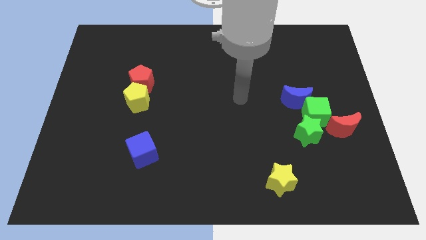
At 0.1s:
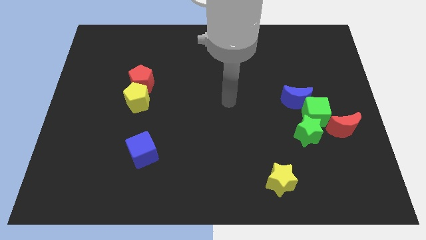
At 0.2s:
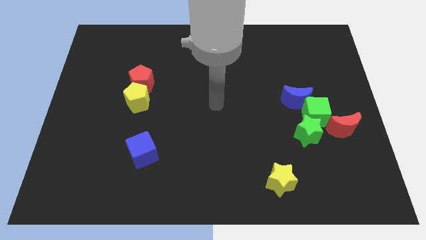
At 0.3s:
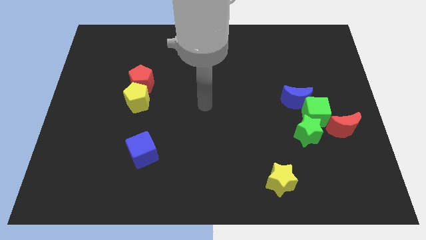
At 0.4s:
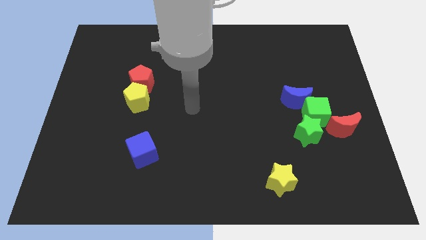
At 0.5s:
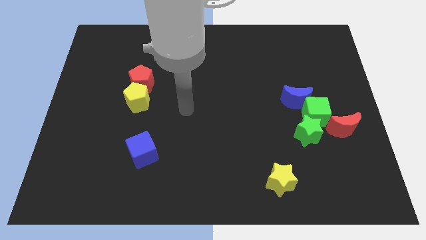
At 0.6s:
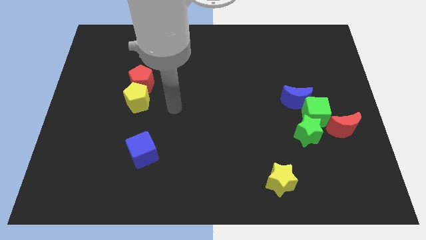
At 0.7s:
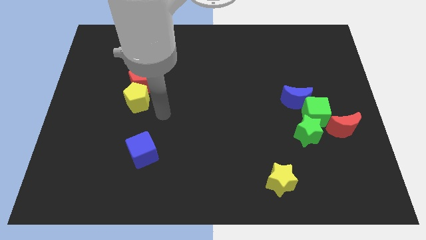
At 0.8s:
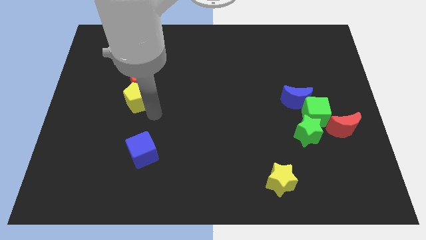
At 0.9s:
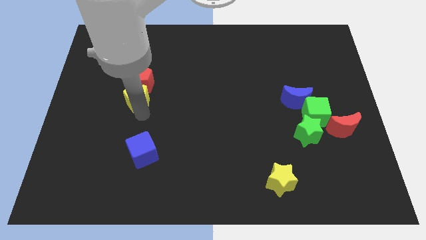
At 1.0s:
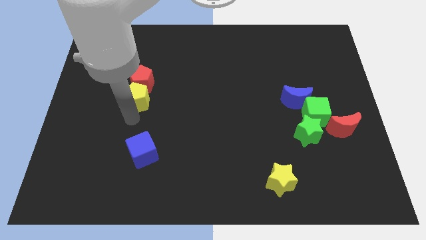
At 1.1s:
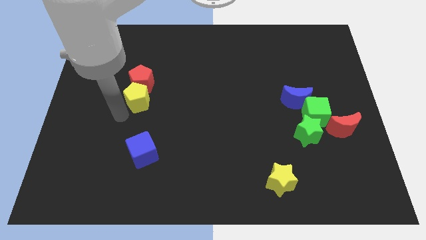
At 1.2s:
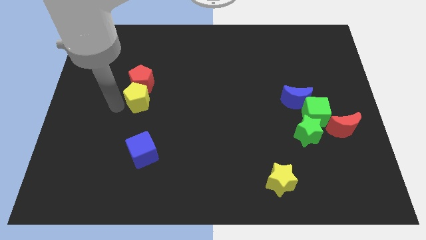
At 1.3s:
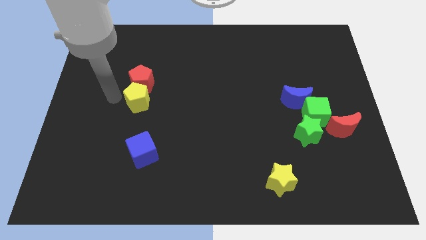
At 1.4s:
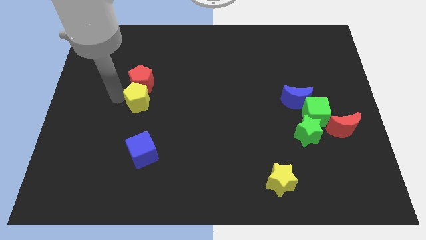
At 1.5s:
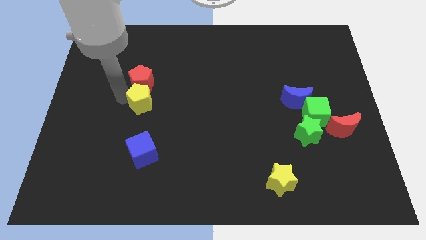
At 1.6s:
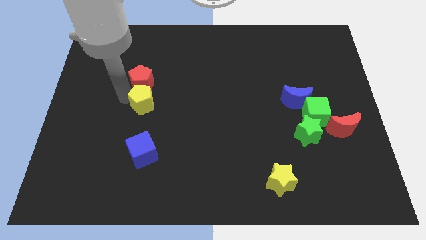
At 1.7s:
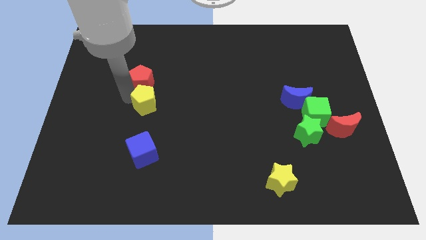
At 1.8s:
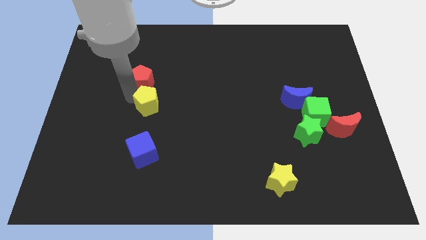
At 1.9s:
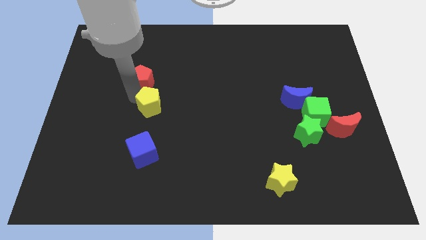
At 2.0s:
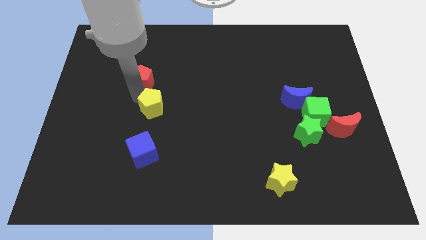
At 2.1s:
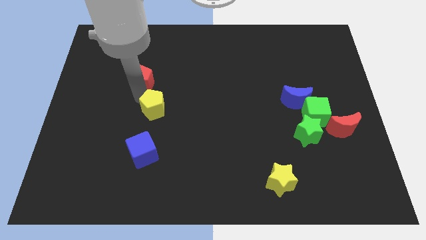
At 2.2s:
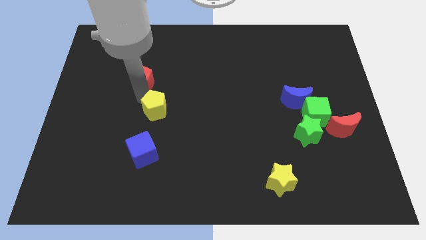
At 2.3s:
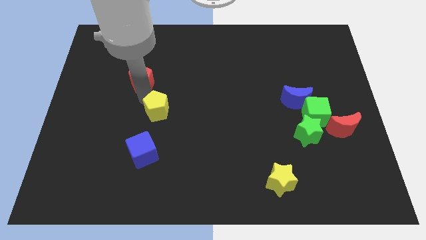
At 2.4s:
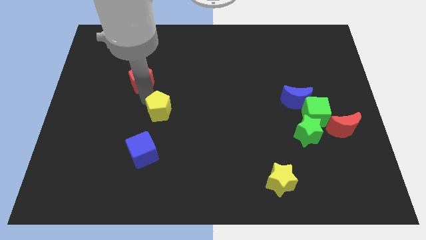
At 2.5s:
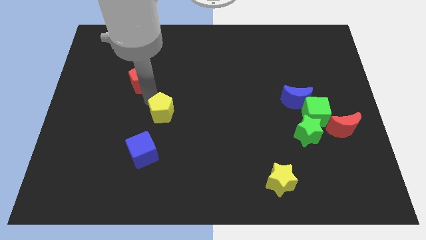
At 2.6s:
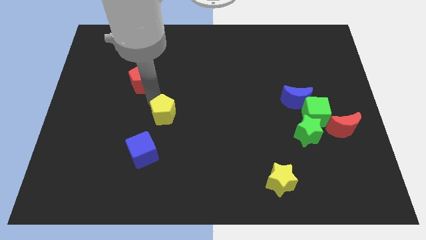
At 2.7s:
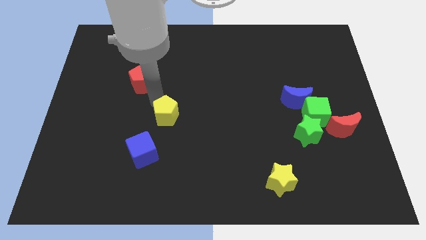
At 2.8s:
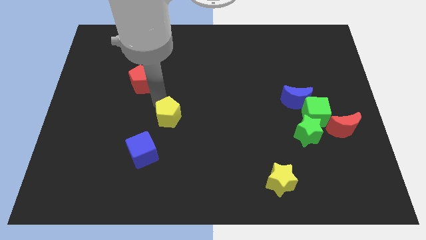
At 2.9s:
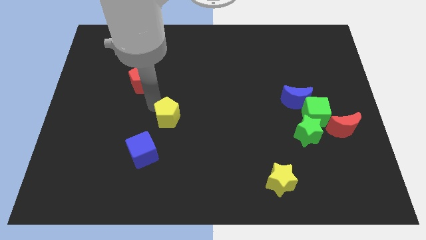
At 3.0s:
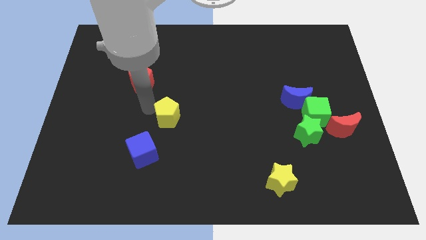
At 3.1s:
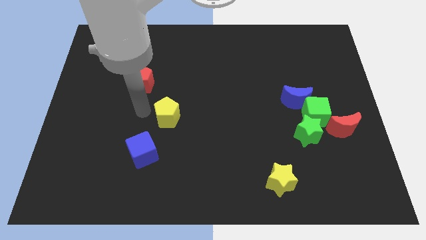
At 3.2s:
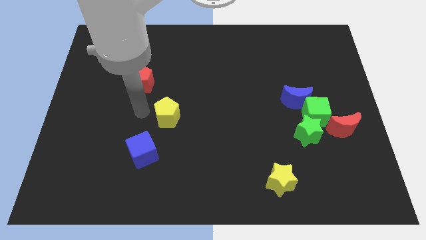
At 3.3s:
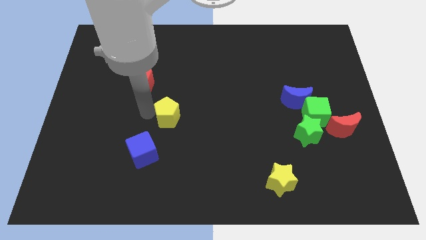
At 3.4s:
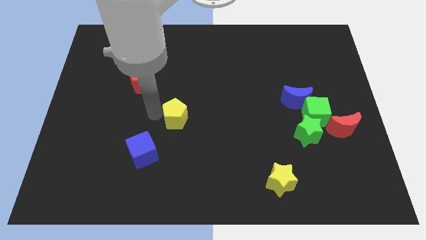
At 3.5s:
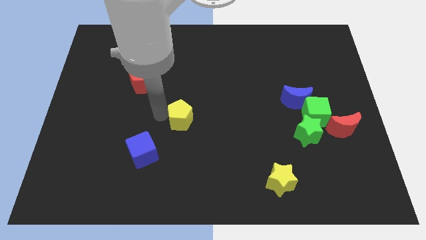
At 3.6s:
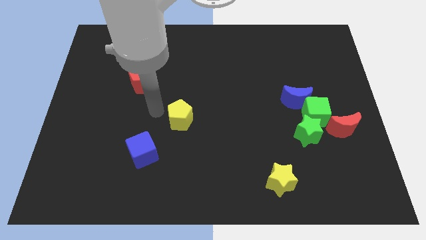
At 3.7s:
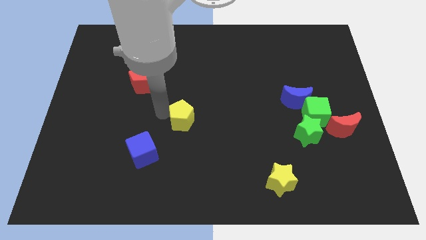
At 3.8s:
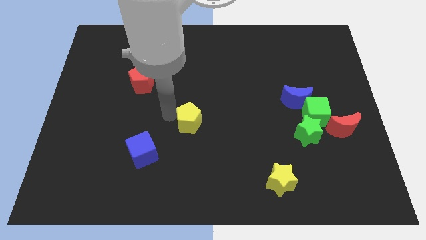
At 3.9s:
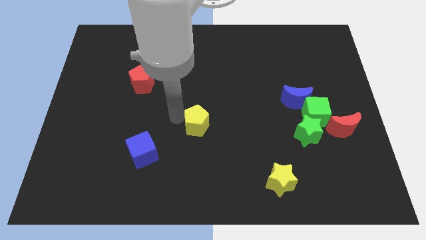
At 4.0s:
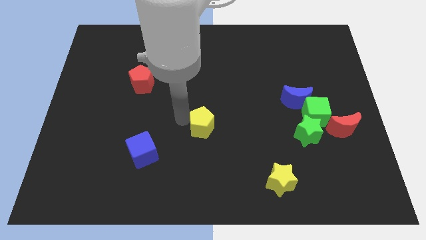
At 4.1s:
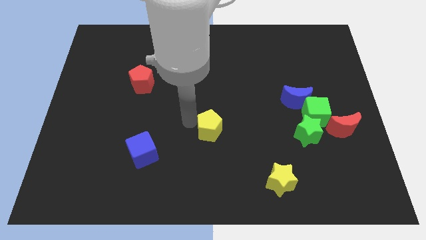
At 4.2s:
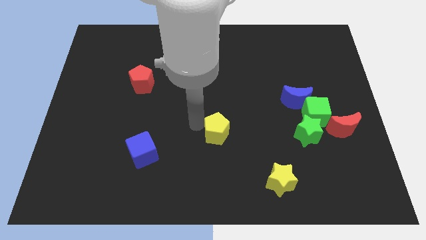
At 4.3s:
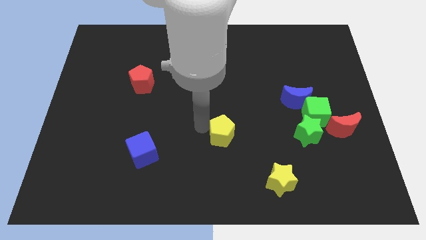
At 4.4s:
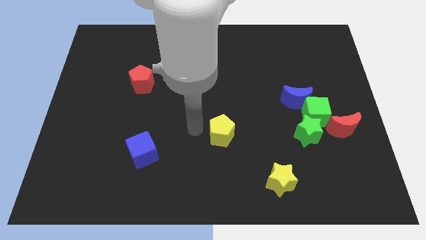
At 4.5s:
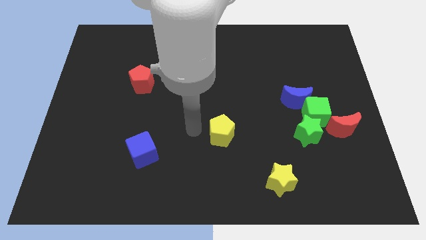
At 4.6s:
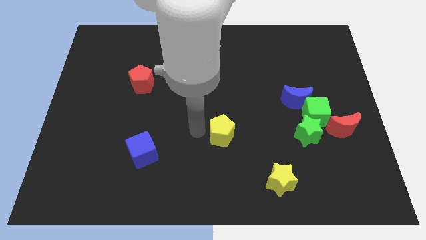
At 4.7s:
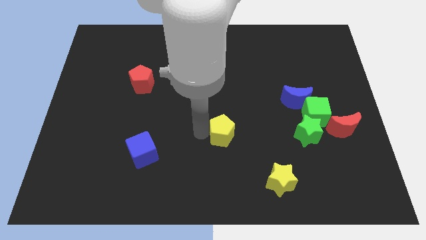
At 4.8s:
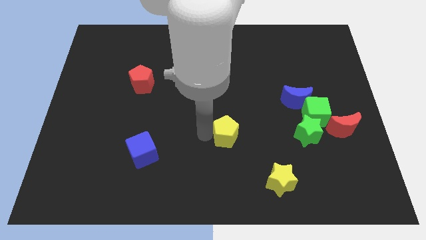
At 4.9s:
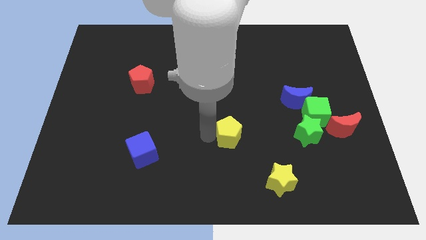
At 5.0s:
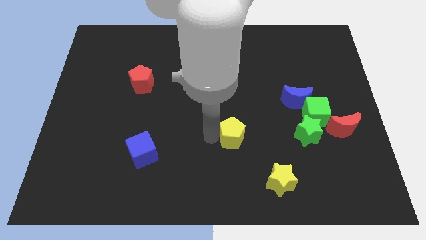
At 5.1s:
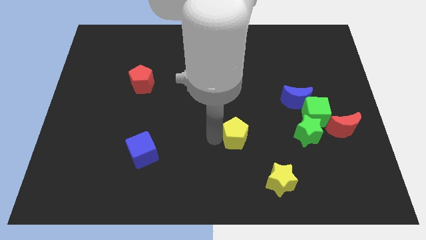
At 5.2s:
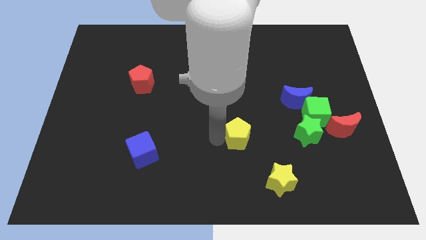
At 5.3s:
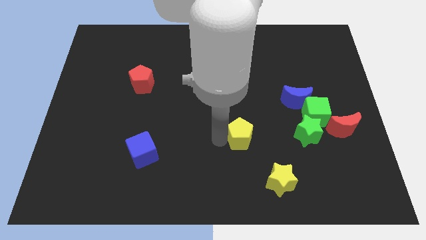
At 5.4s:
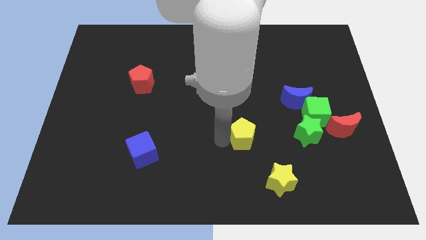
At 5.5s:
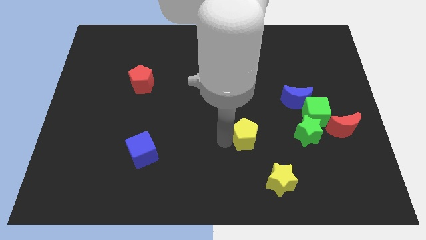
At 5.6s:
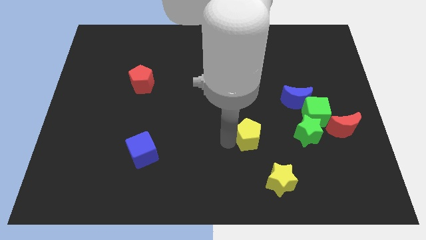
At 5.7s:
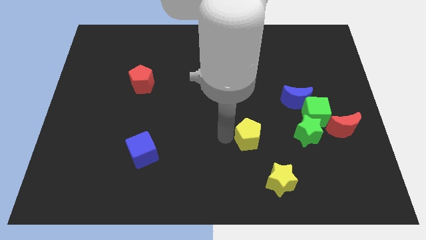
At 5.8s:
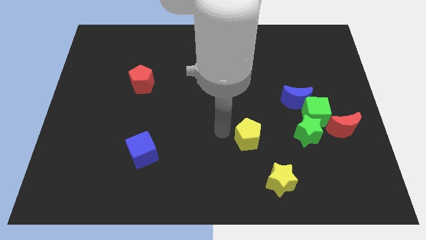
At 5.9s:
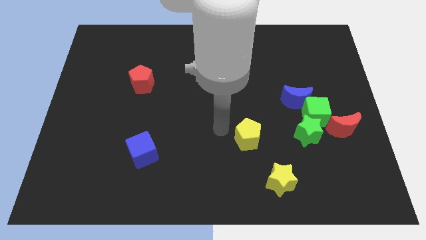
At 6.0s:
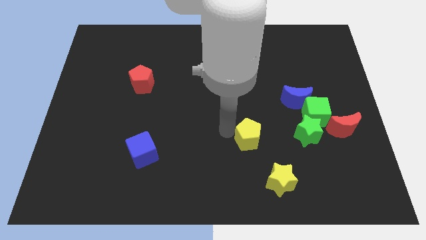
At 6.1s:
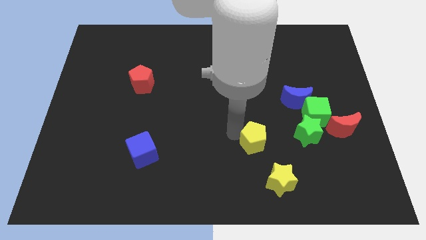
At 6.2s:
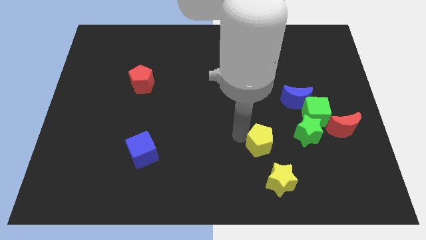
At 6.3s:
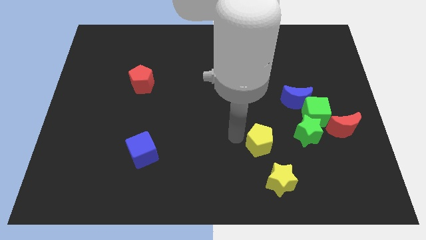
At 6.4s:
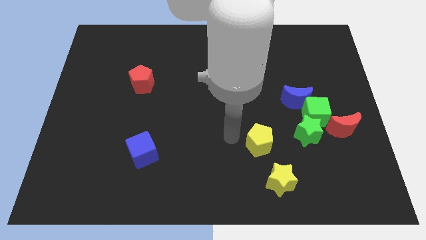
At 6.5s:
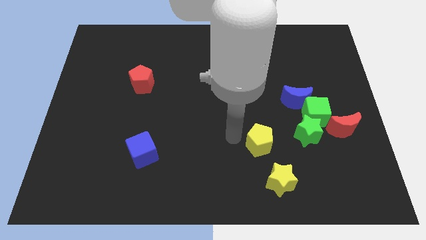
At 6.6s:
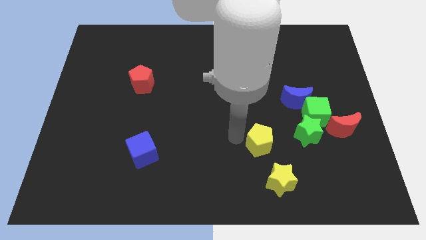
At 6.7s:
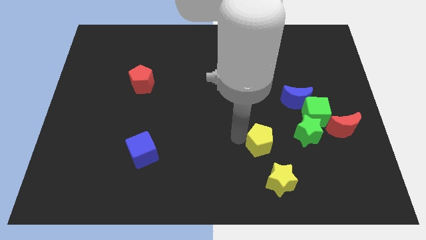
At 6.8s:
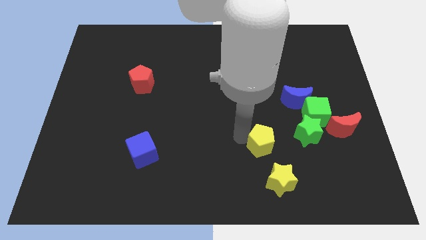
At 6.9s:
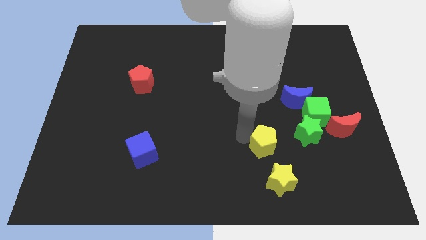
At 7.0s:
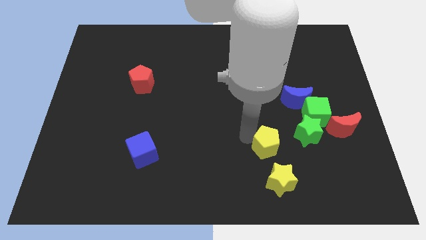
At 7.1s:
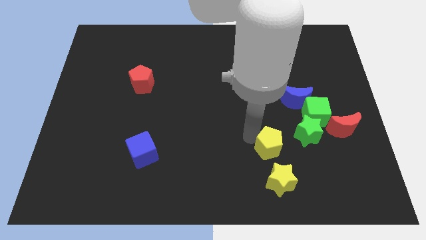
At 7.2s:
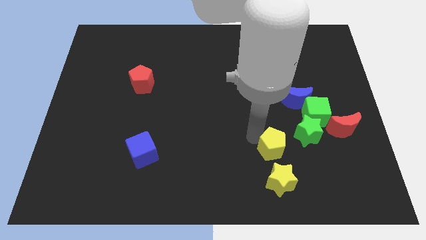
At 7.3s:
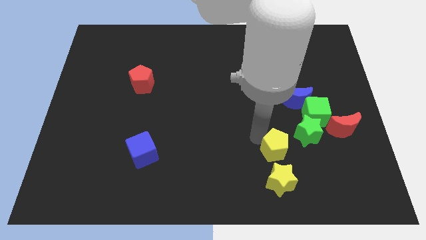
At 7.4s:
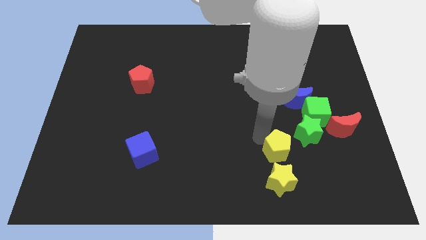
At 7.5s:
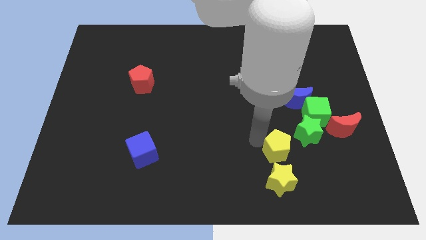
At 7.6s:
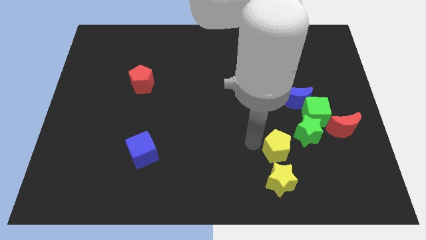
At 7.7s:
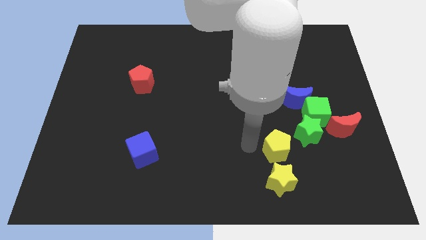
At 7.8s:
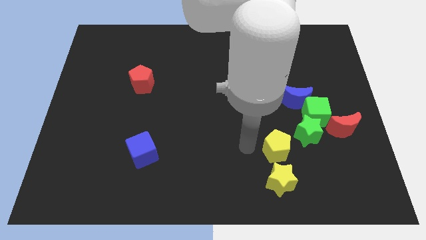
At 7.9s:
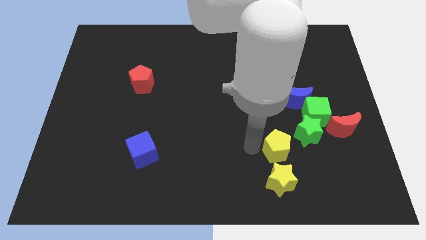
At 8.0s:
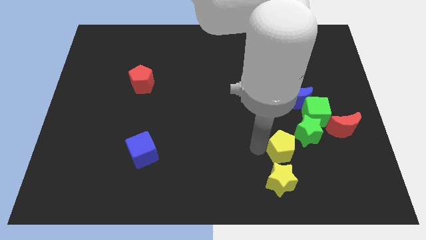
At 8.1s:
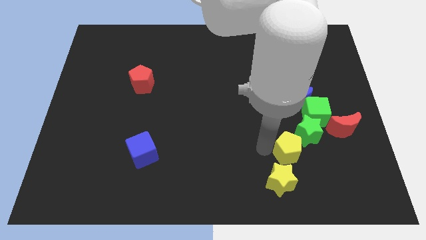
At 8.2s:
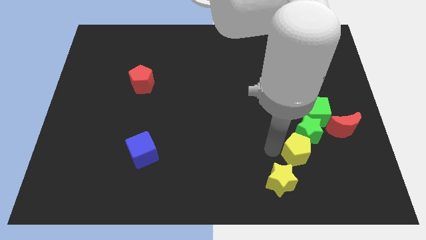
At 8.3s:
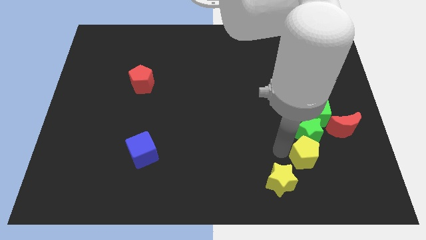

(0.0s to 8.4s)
push the yellow pentagon below the green cube
